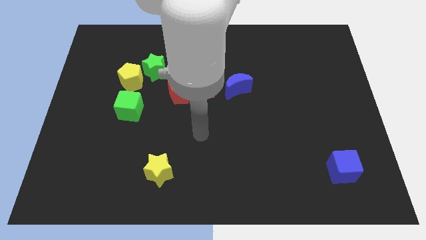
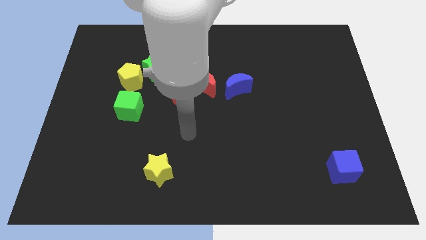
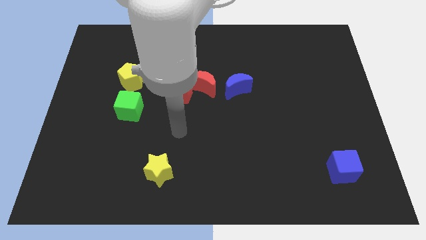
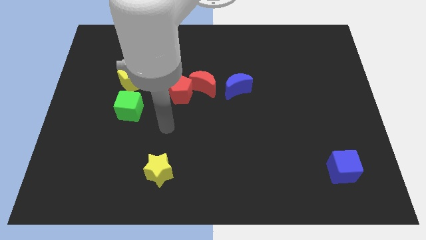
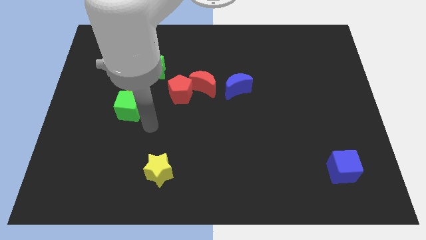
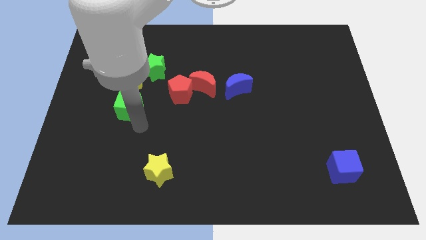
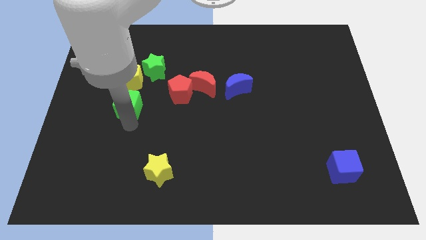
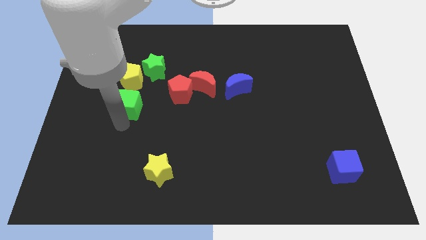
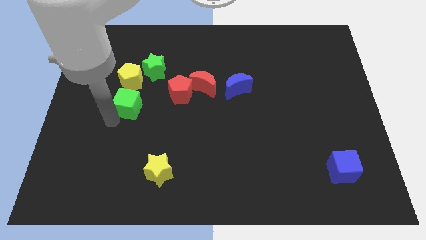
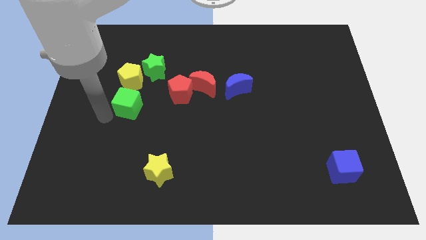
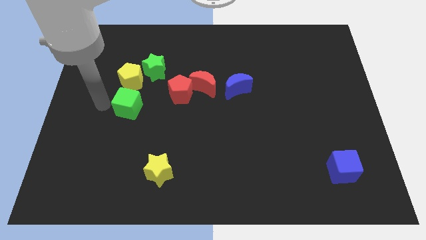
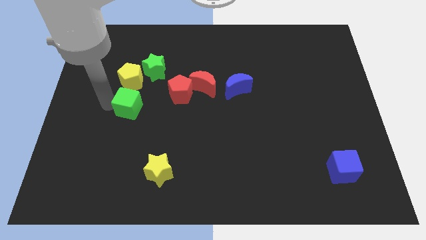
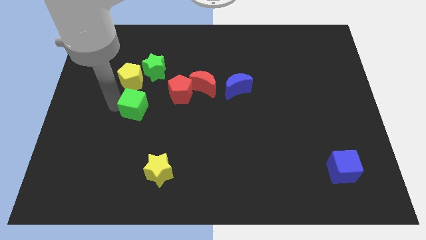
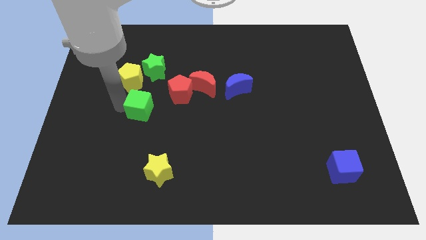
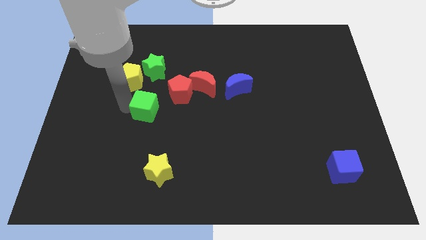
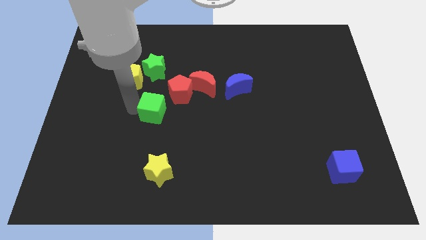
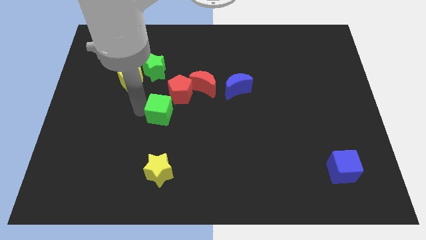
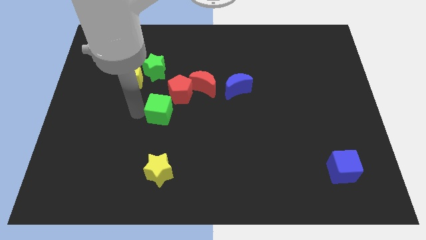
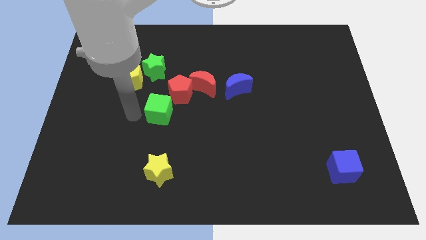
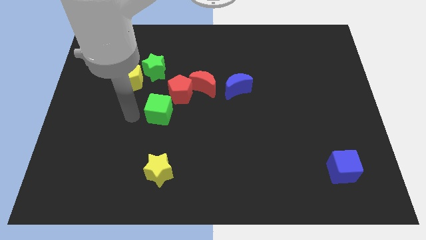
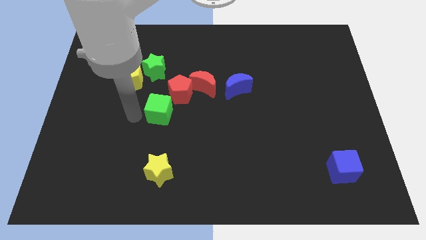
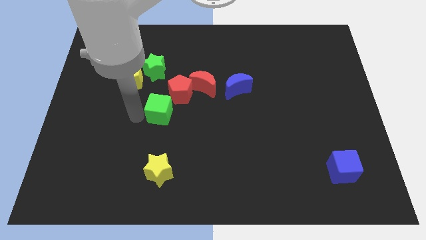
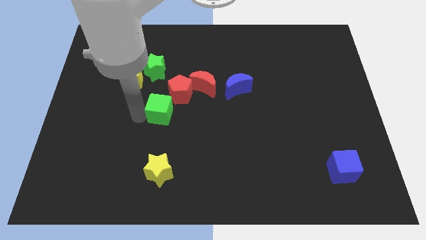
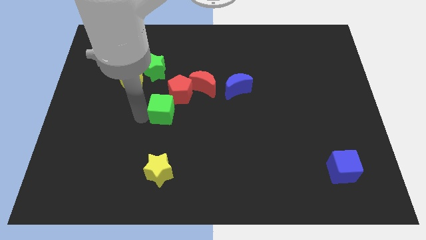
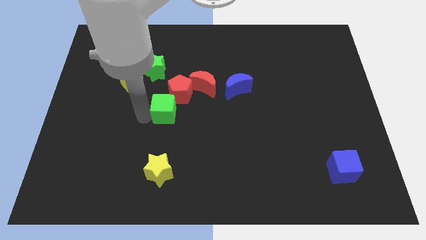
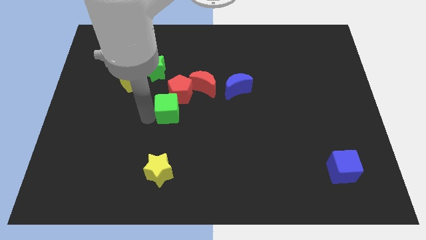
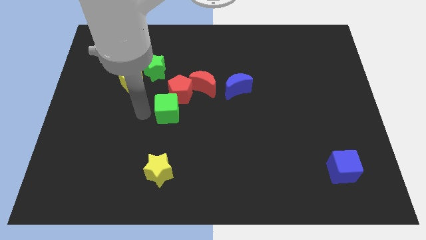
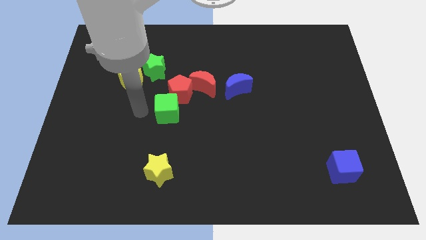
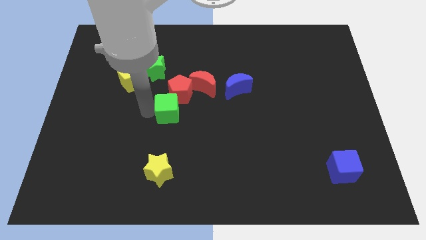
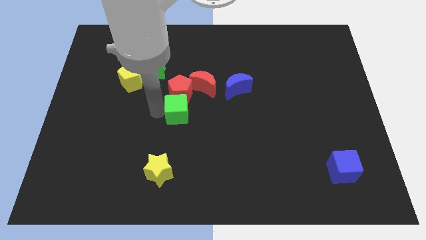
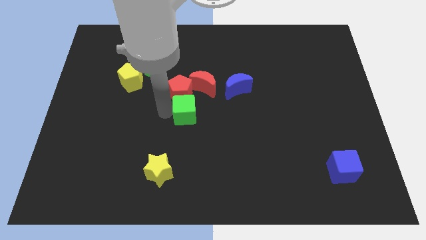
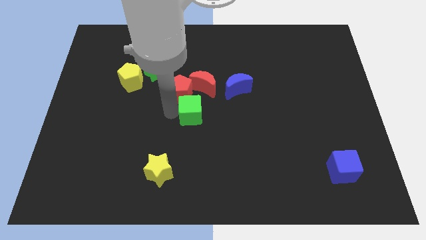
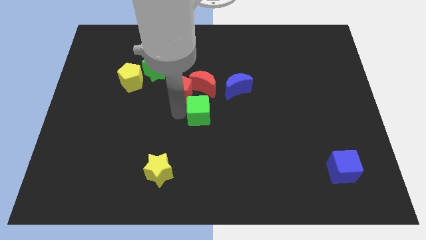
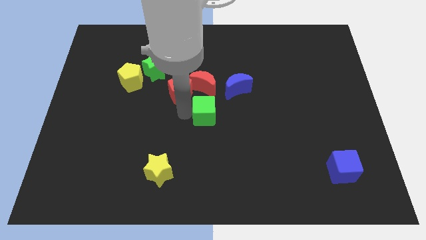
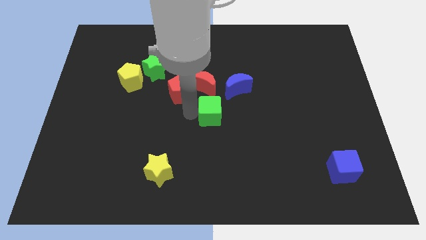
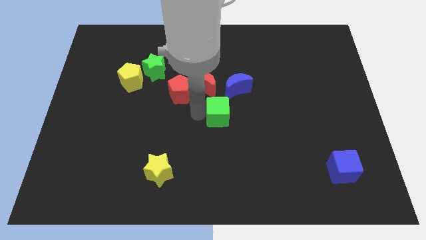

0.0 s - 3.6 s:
move the green cube right

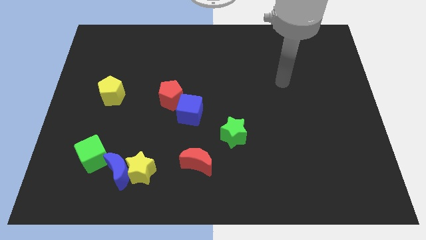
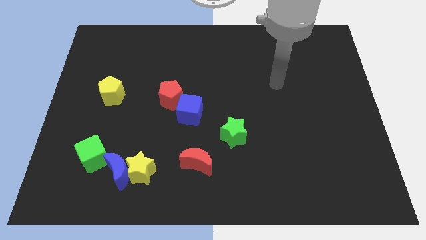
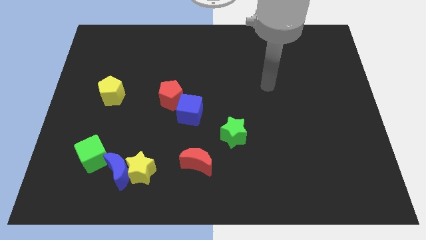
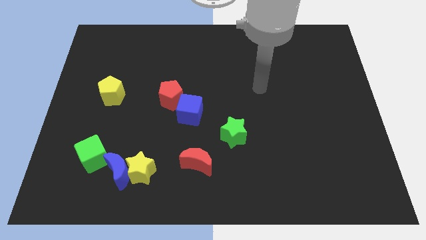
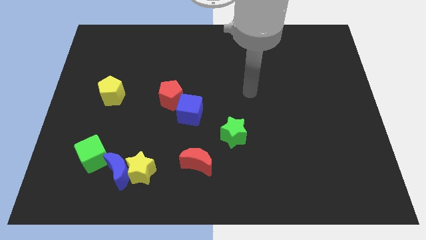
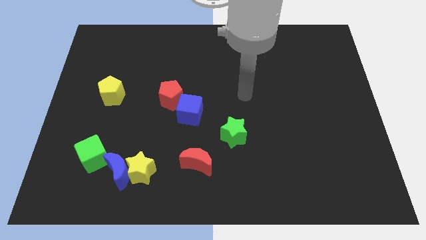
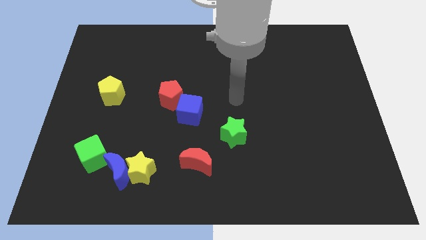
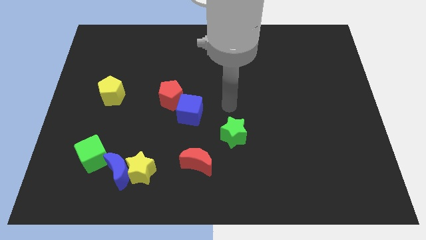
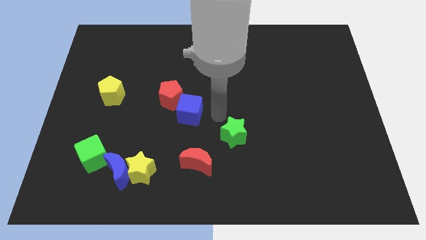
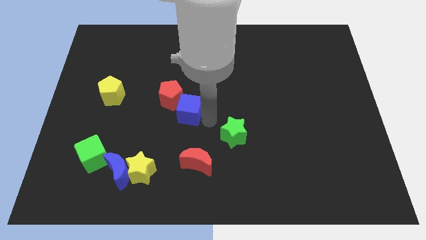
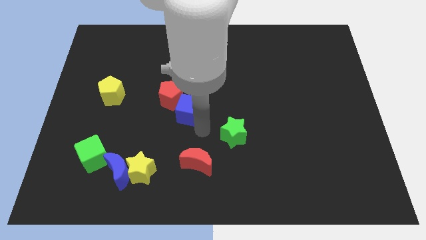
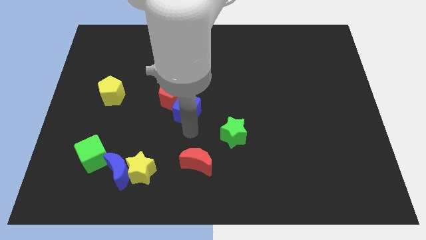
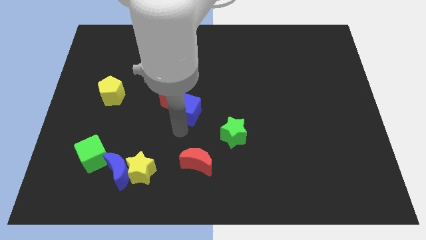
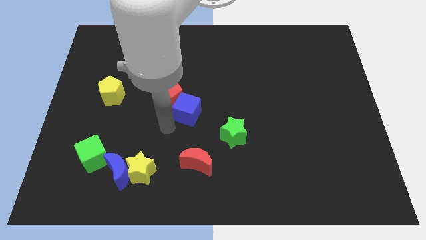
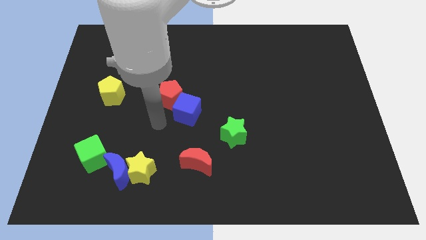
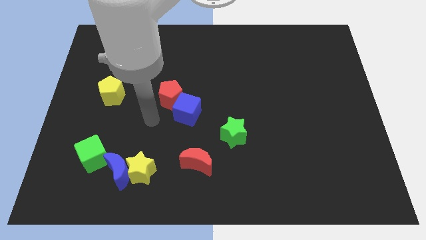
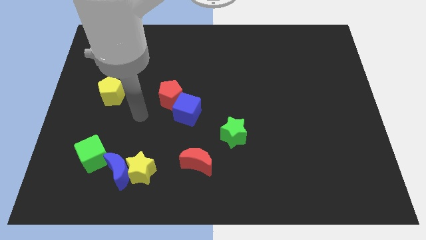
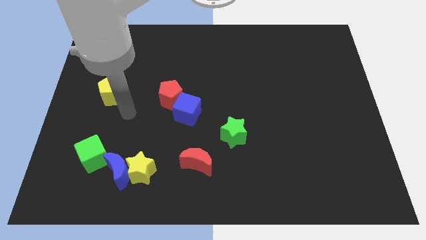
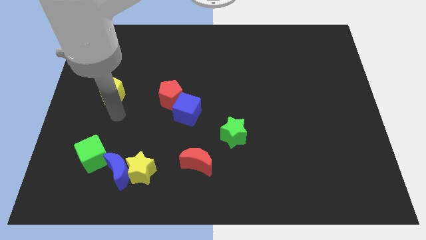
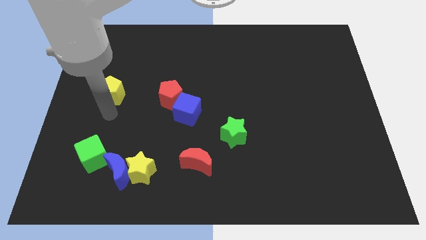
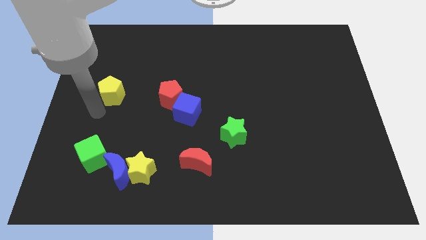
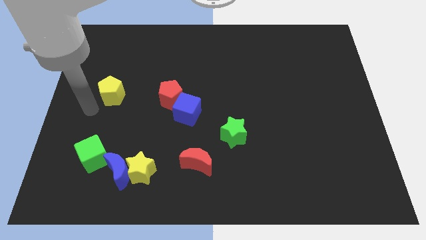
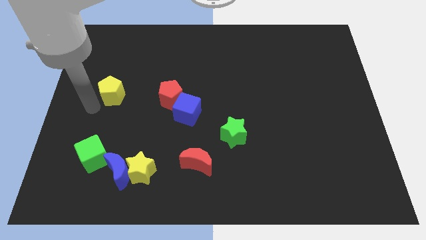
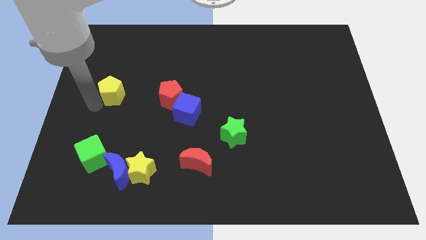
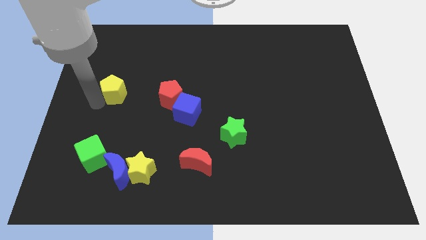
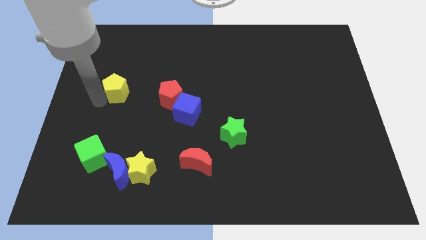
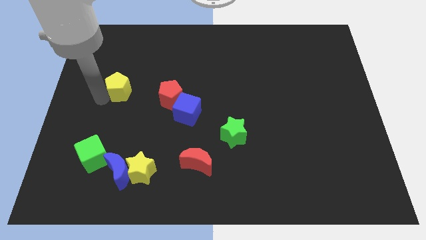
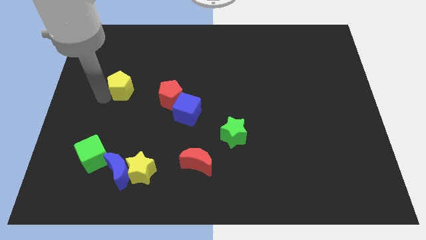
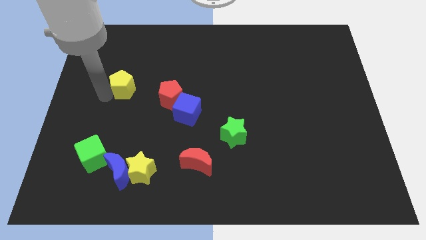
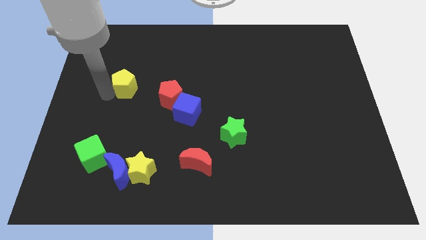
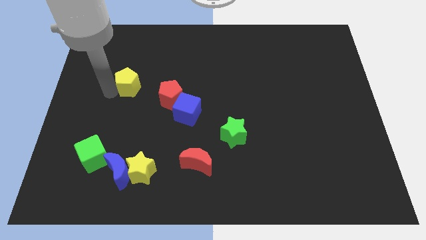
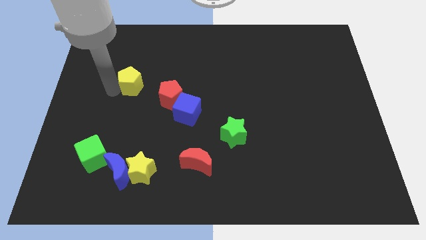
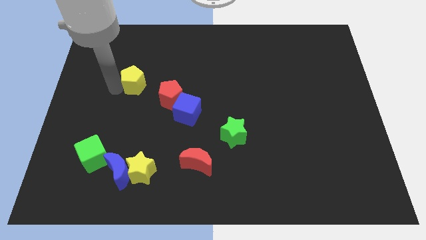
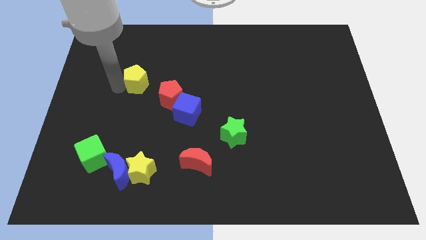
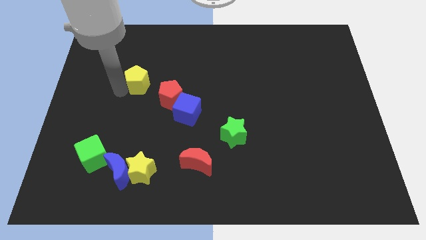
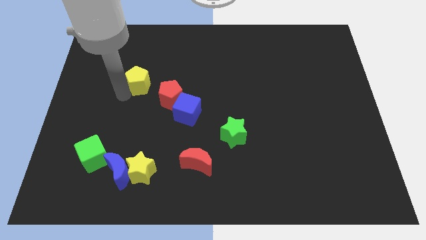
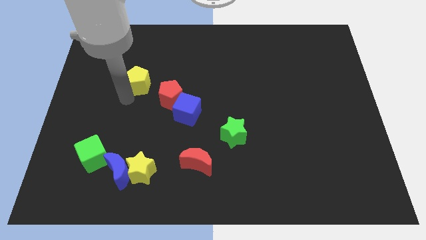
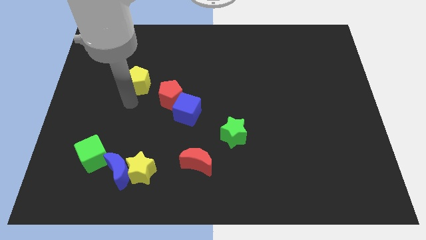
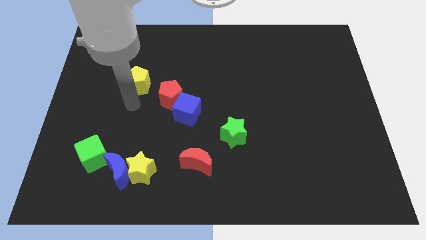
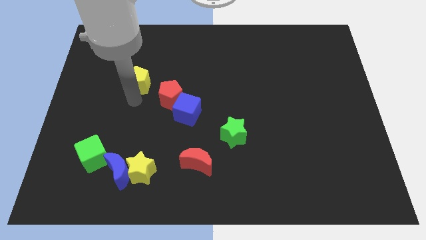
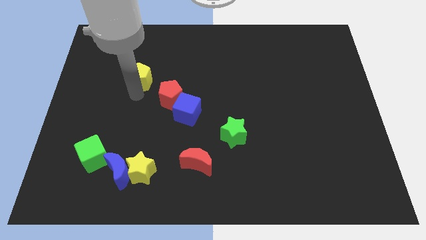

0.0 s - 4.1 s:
push the yellow pentagon somewhat diagonally up and right

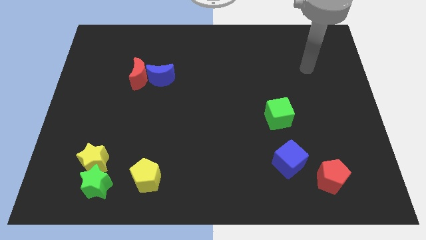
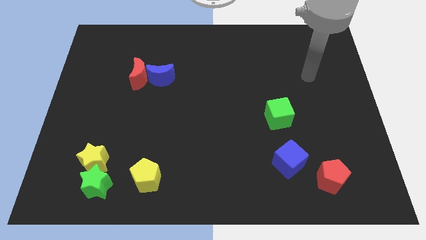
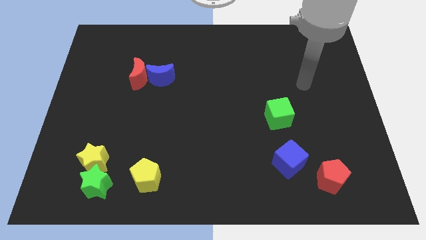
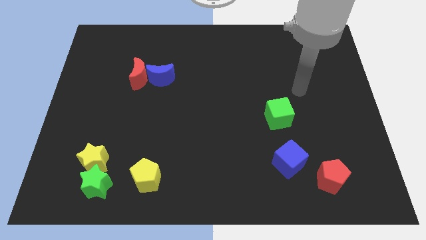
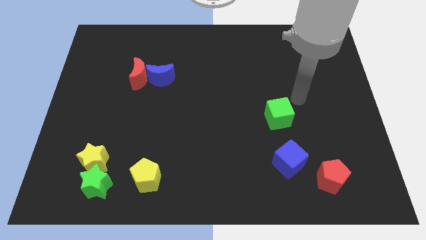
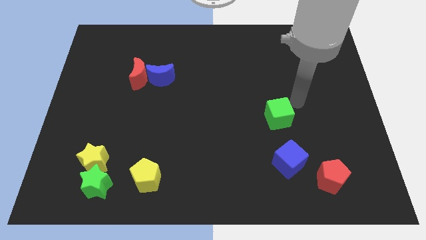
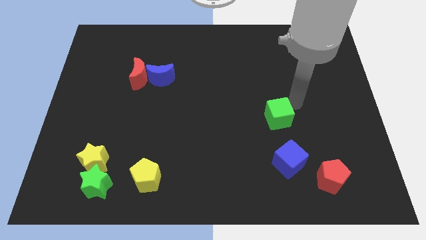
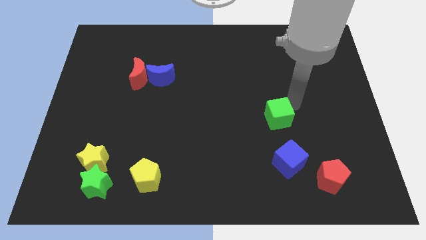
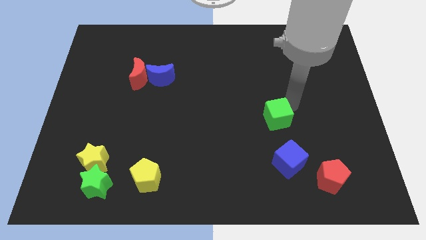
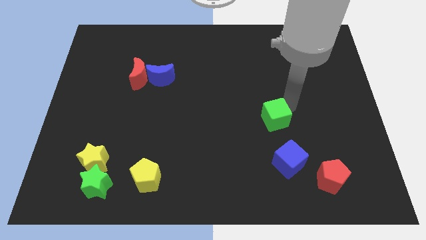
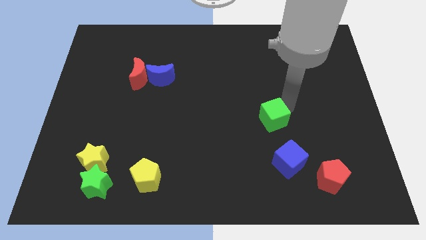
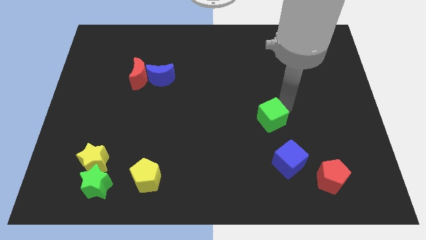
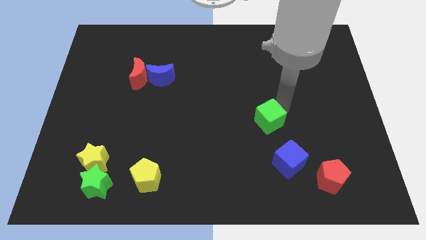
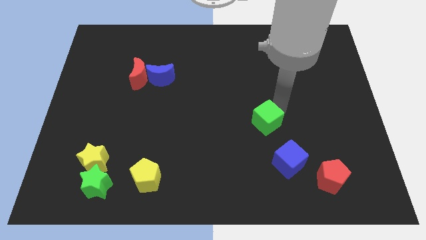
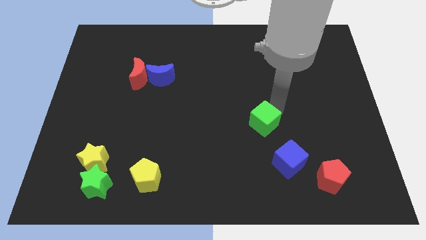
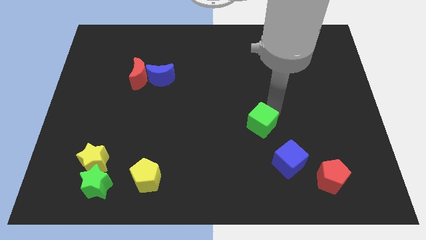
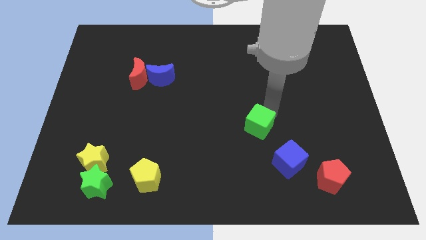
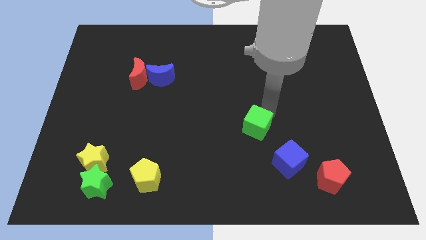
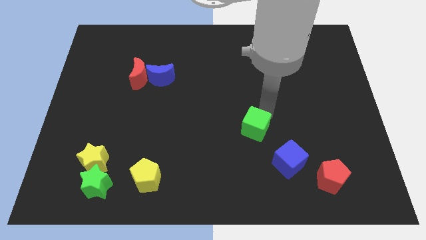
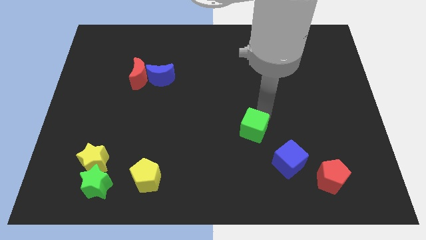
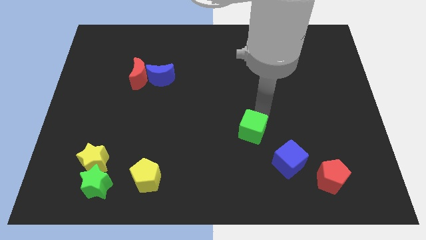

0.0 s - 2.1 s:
move the green cube down and then left a little bit
